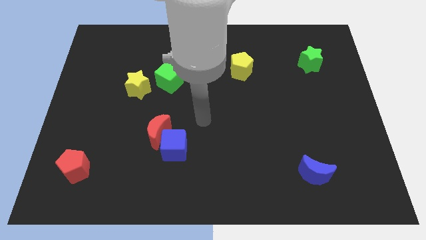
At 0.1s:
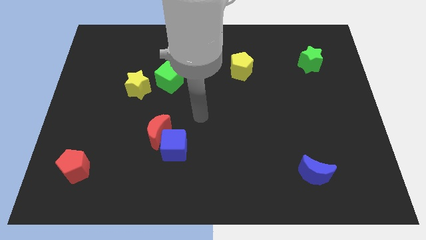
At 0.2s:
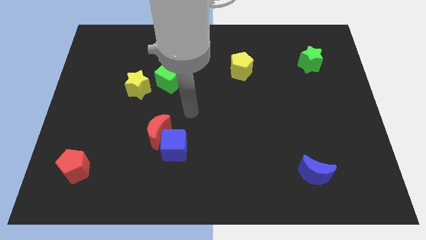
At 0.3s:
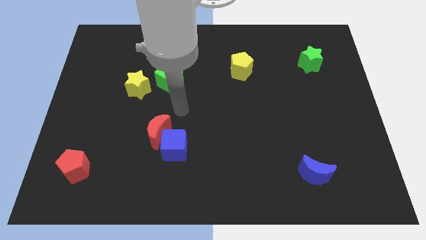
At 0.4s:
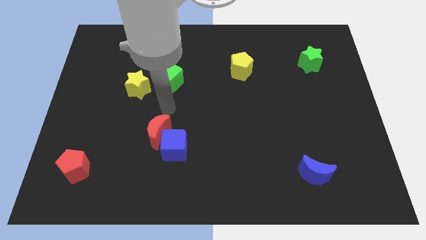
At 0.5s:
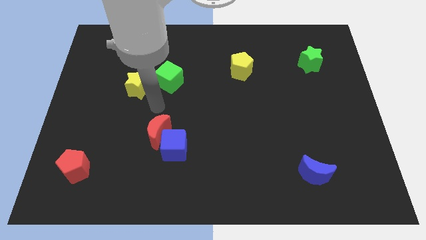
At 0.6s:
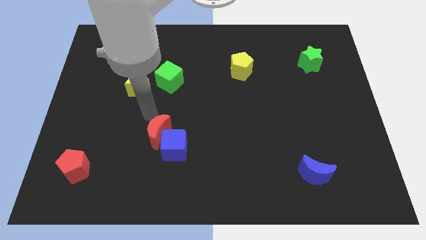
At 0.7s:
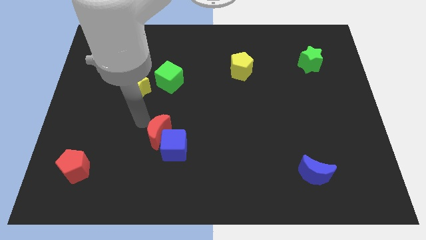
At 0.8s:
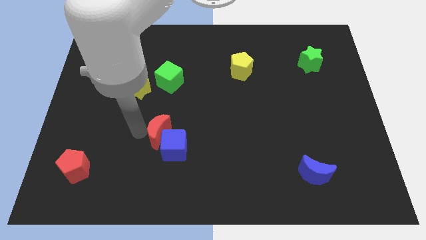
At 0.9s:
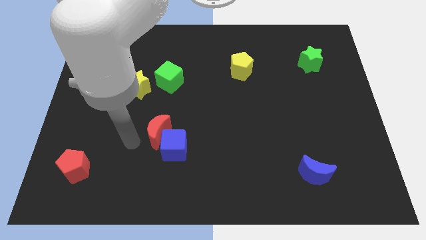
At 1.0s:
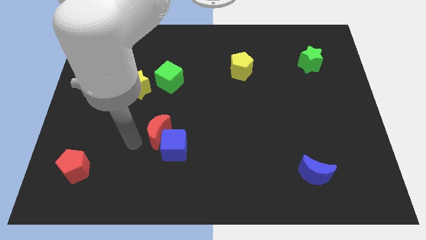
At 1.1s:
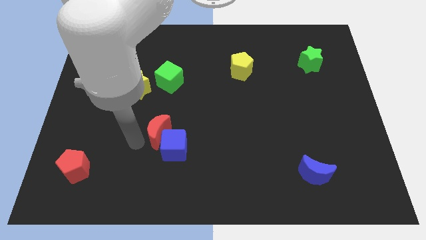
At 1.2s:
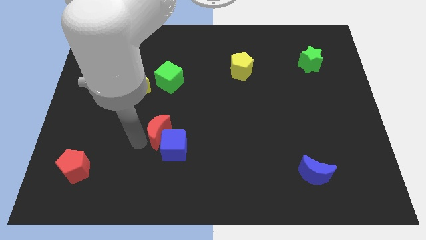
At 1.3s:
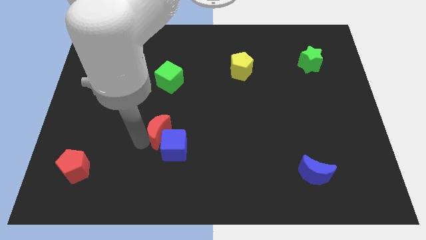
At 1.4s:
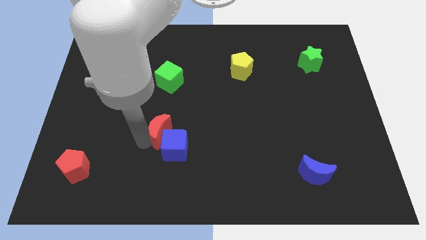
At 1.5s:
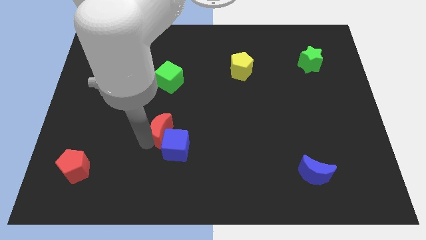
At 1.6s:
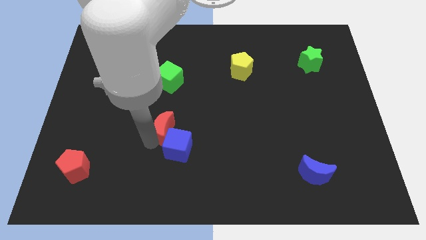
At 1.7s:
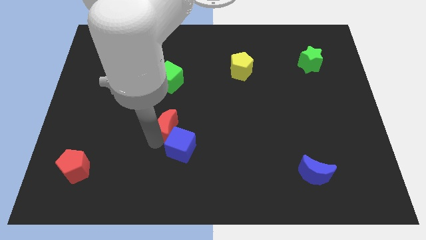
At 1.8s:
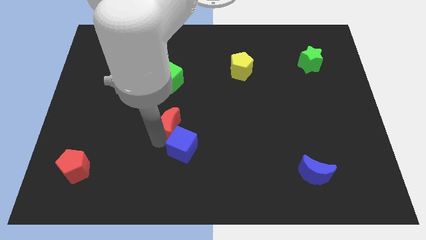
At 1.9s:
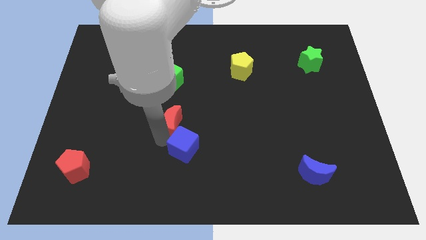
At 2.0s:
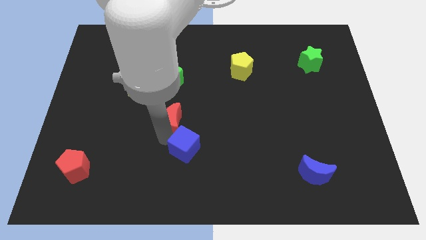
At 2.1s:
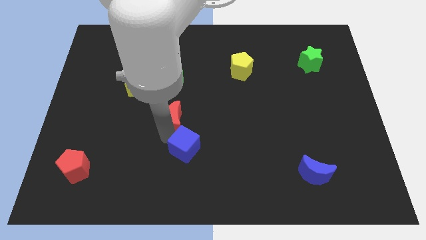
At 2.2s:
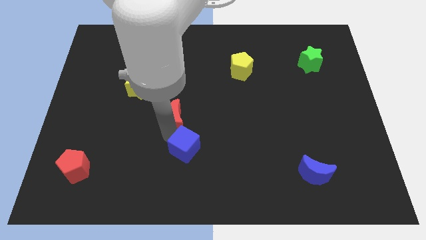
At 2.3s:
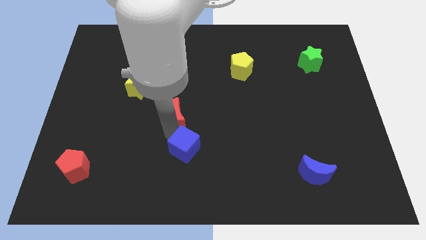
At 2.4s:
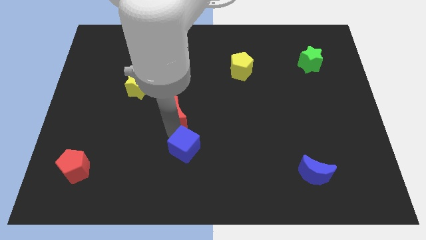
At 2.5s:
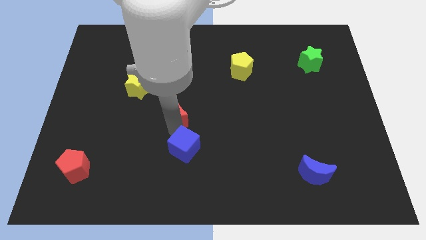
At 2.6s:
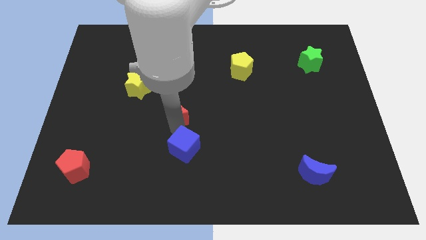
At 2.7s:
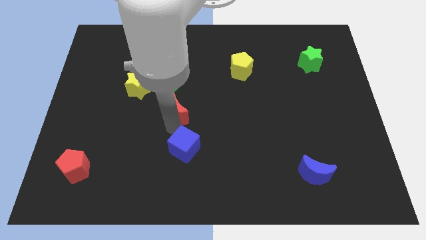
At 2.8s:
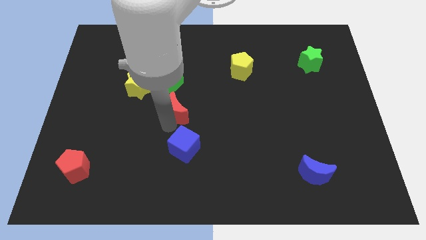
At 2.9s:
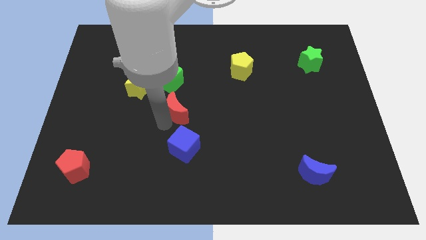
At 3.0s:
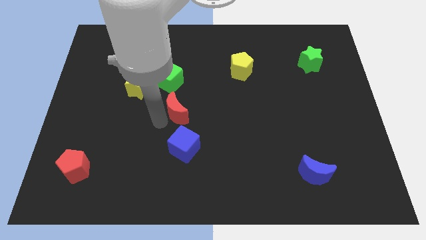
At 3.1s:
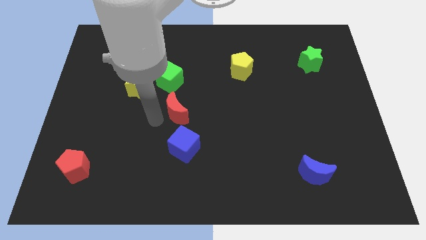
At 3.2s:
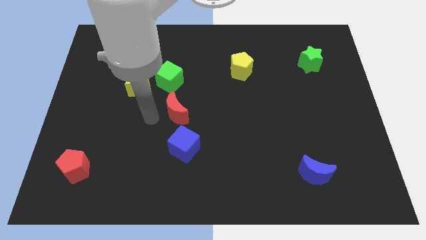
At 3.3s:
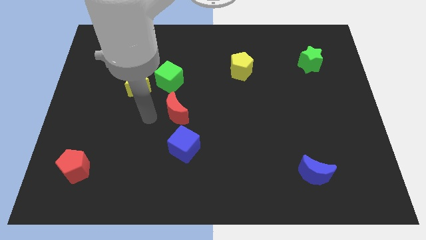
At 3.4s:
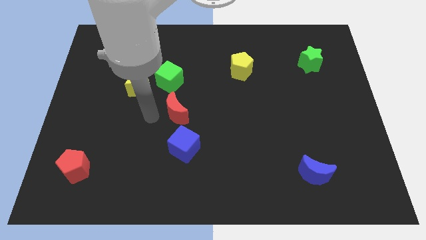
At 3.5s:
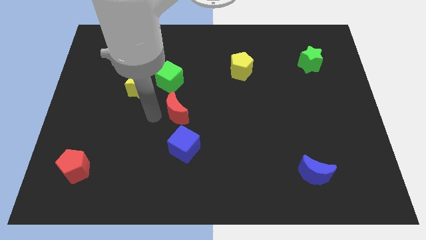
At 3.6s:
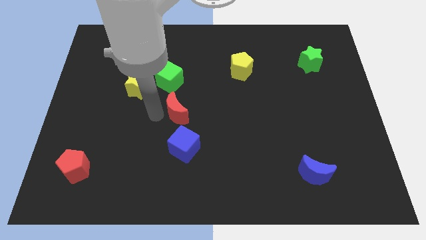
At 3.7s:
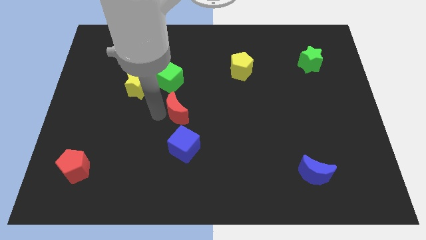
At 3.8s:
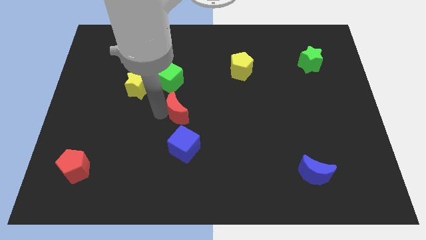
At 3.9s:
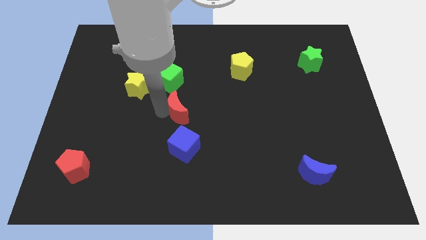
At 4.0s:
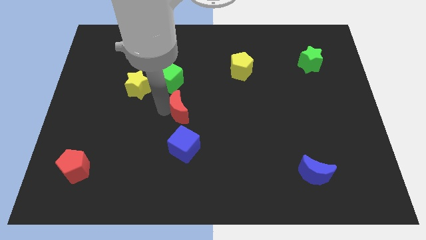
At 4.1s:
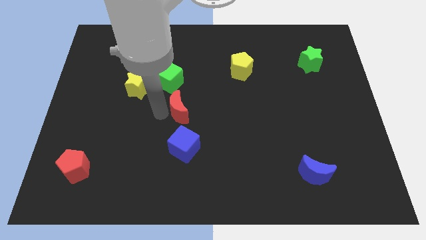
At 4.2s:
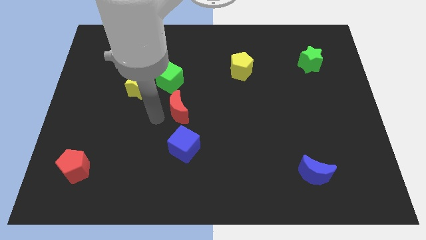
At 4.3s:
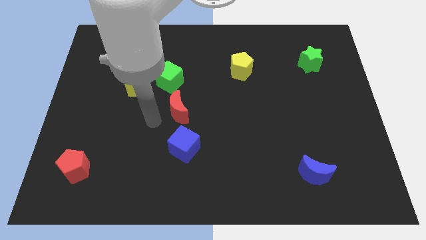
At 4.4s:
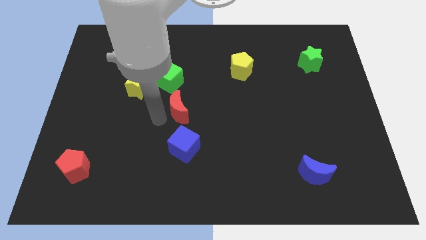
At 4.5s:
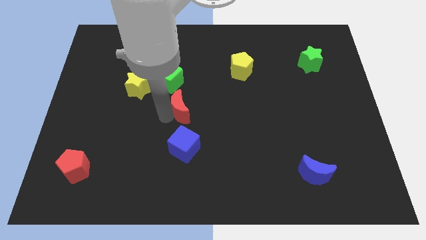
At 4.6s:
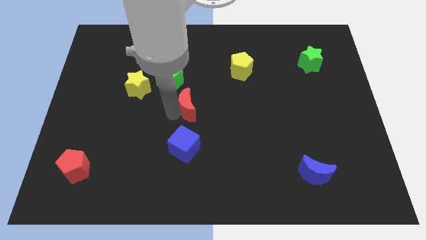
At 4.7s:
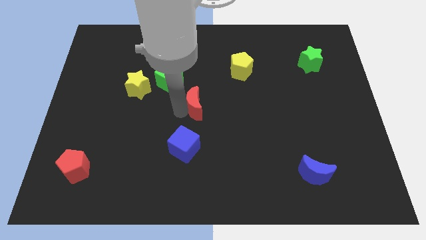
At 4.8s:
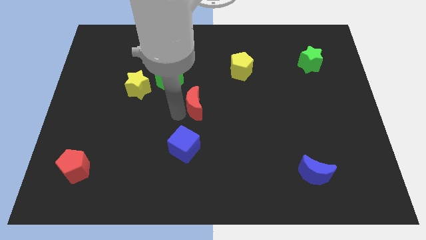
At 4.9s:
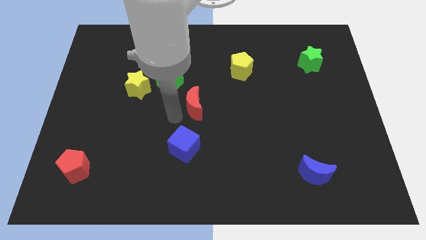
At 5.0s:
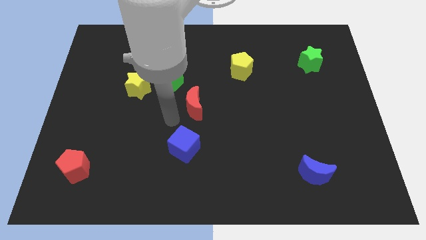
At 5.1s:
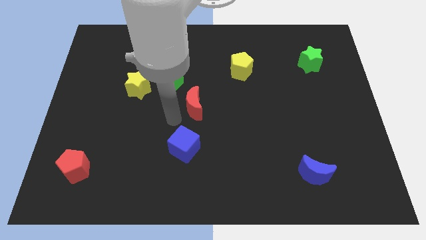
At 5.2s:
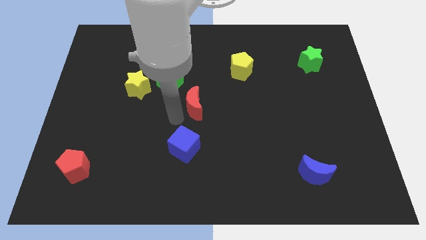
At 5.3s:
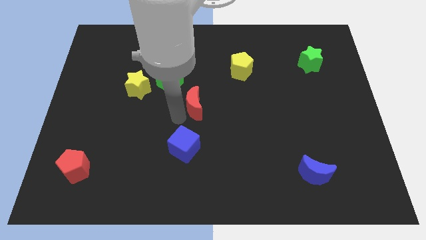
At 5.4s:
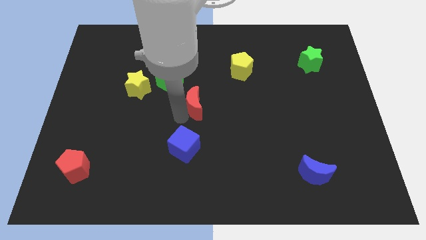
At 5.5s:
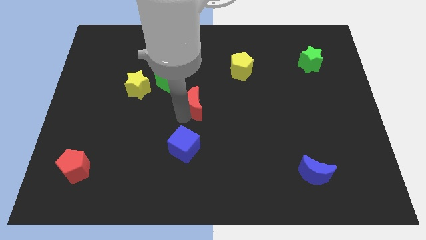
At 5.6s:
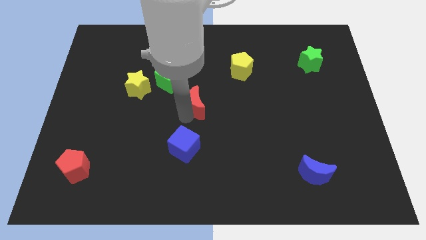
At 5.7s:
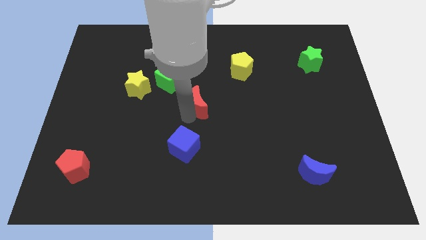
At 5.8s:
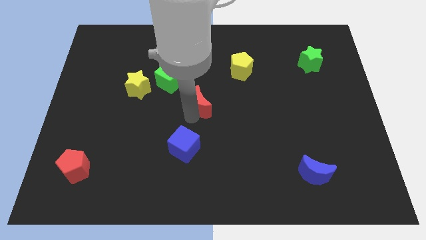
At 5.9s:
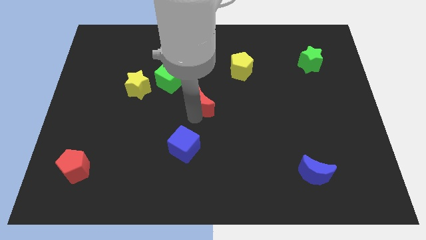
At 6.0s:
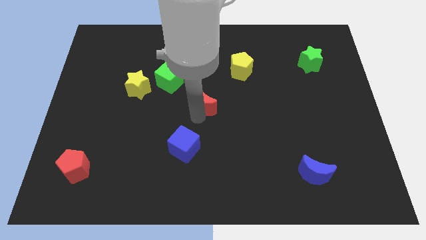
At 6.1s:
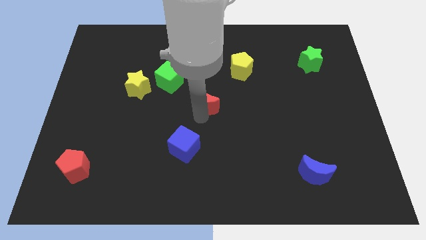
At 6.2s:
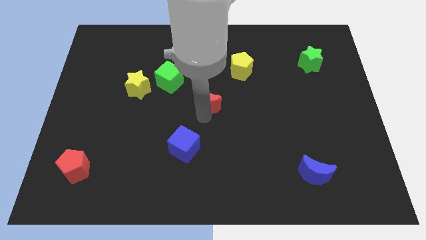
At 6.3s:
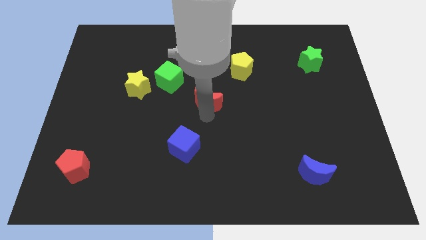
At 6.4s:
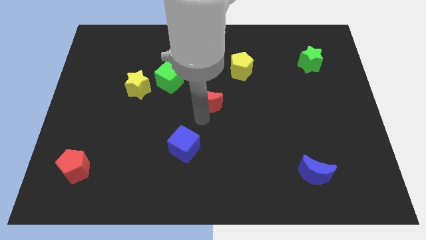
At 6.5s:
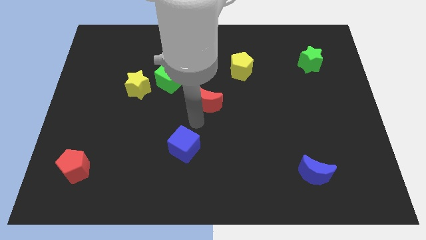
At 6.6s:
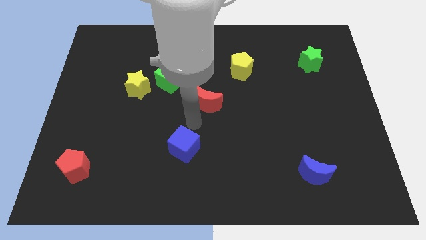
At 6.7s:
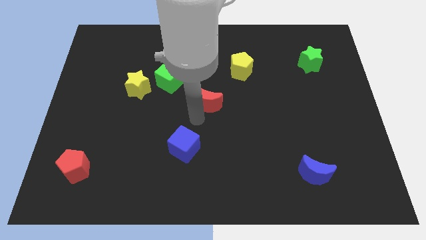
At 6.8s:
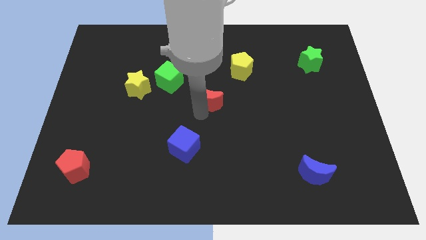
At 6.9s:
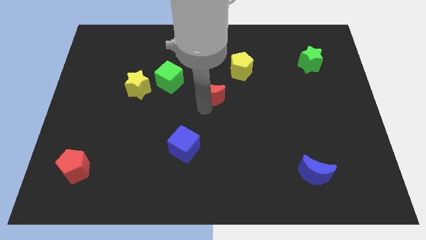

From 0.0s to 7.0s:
push the red moon to the bottom left of the yellow pentagon

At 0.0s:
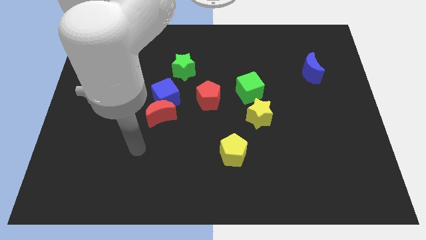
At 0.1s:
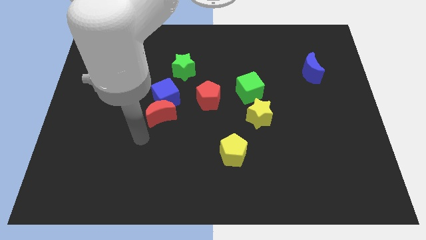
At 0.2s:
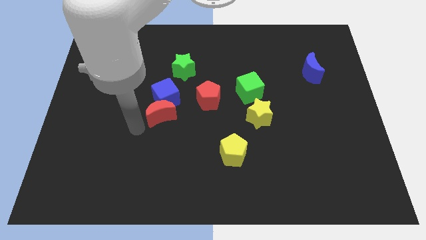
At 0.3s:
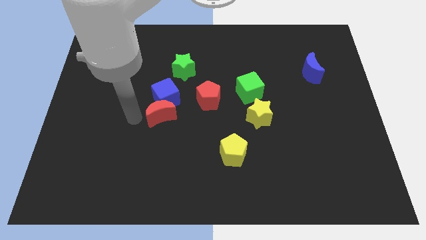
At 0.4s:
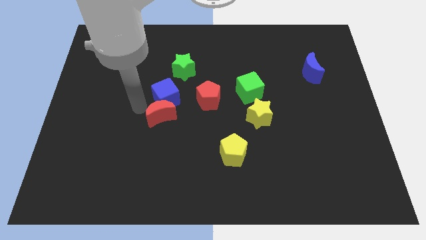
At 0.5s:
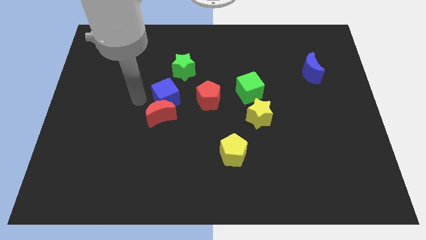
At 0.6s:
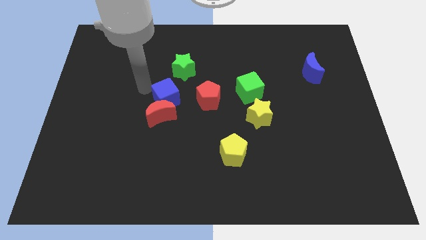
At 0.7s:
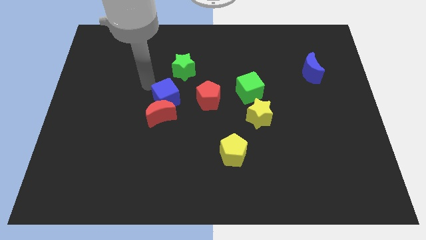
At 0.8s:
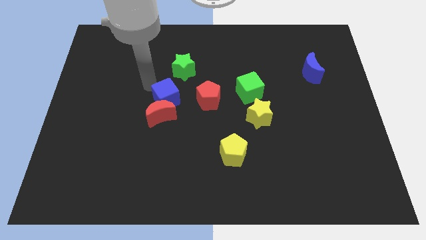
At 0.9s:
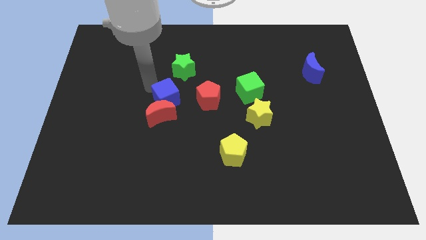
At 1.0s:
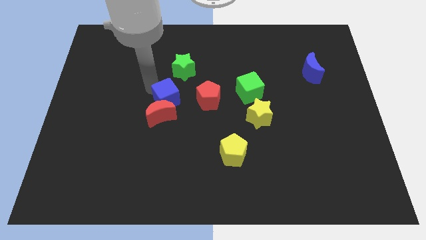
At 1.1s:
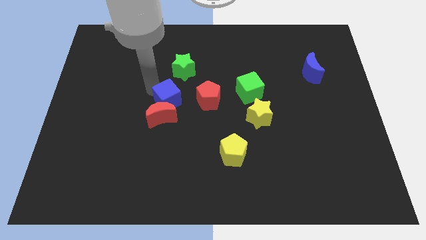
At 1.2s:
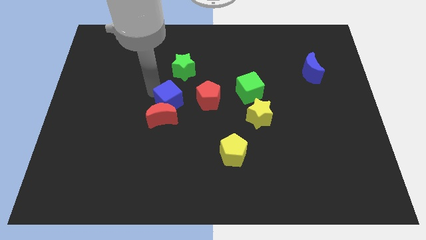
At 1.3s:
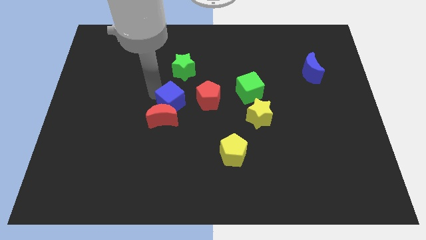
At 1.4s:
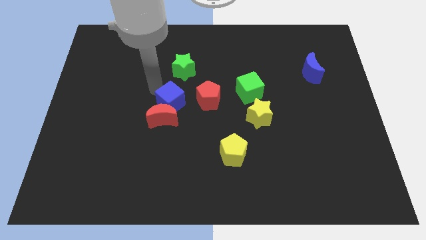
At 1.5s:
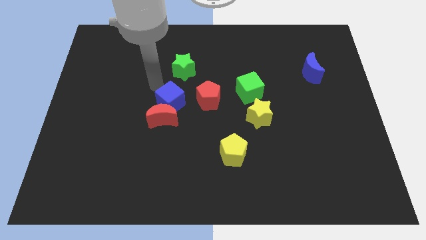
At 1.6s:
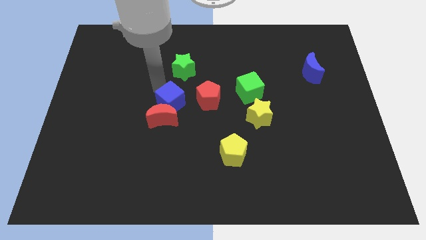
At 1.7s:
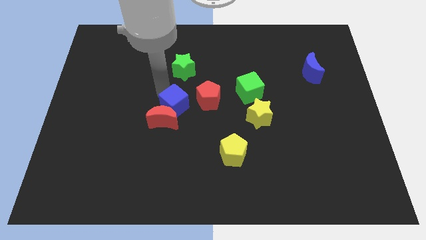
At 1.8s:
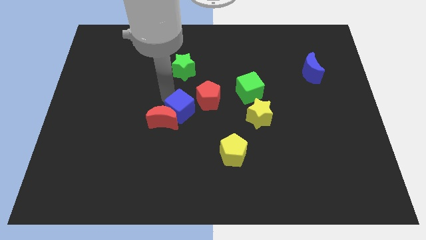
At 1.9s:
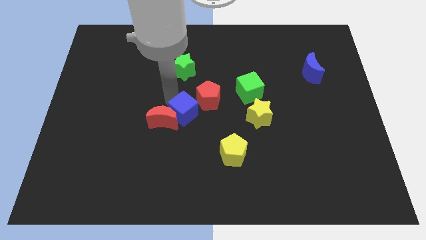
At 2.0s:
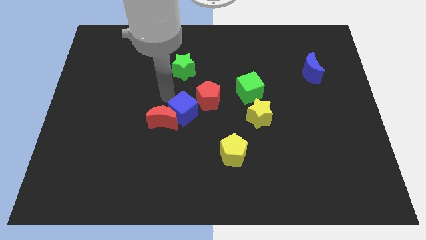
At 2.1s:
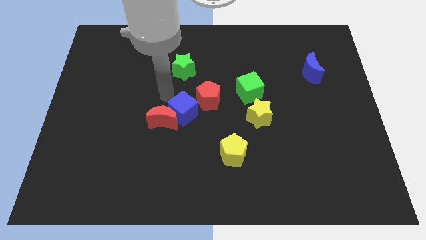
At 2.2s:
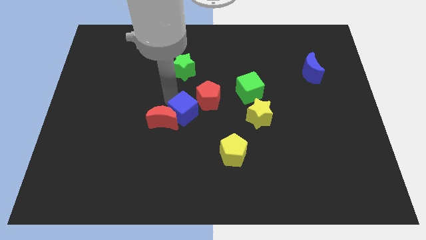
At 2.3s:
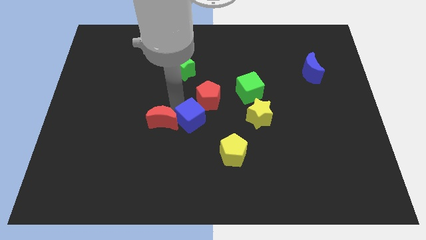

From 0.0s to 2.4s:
put the blue cube to the bottom side of the red pentagon
